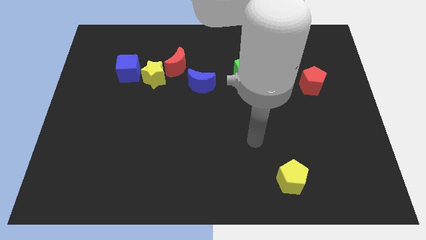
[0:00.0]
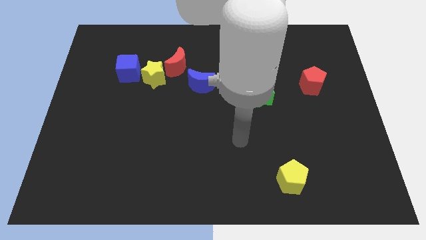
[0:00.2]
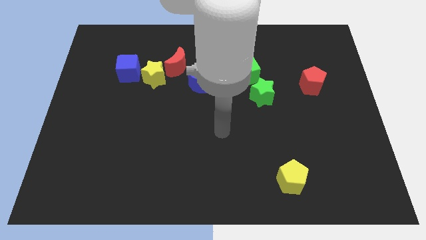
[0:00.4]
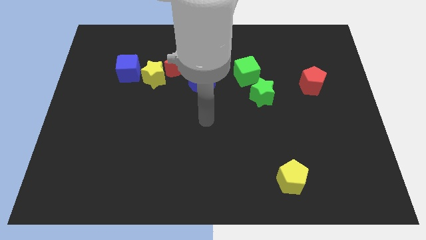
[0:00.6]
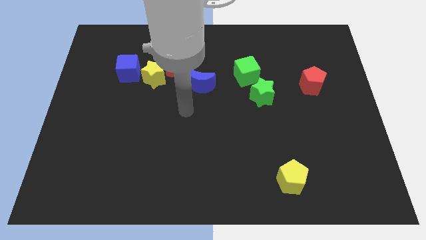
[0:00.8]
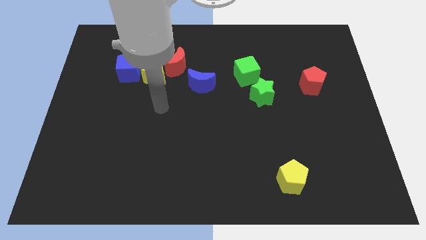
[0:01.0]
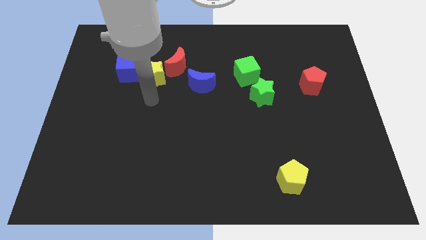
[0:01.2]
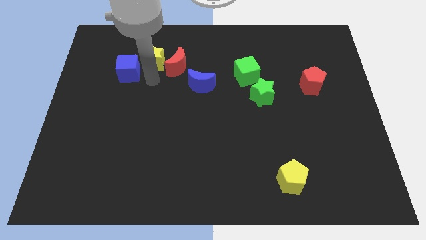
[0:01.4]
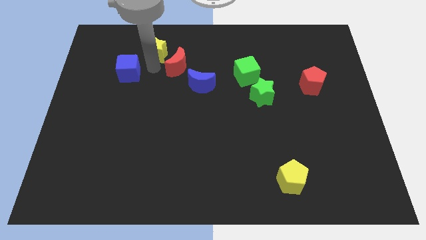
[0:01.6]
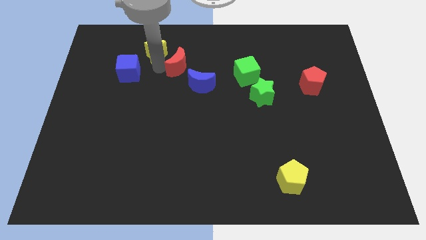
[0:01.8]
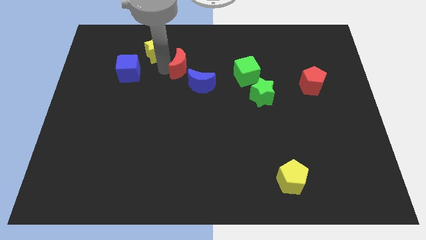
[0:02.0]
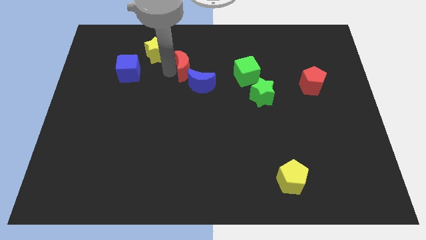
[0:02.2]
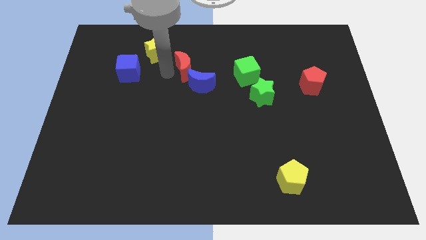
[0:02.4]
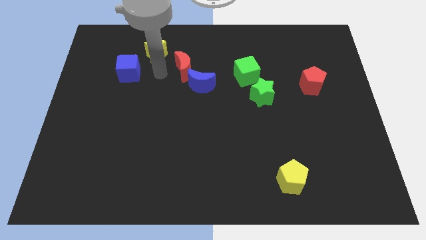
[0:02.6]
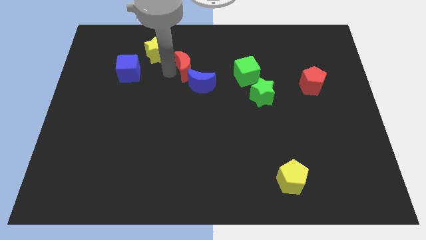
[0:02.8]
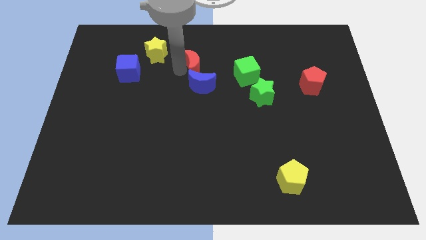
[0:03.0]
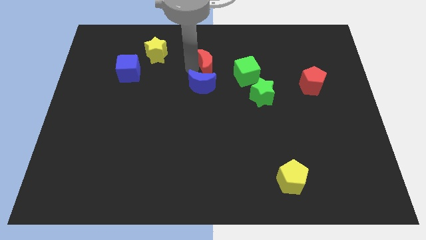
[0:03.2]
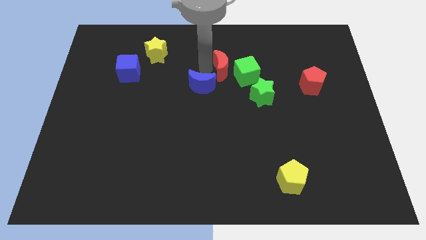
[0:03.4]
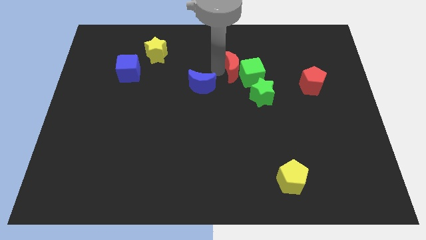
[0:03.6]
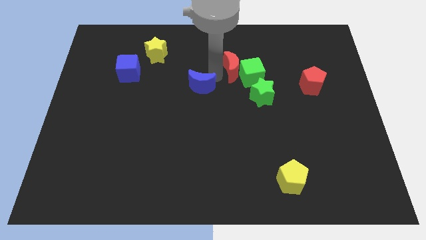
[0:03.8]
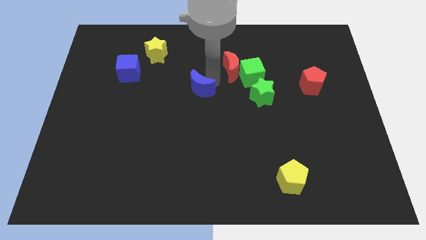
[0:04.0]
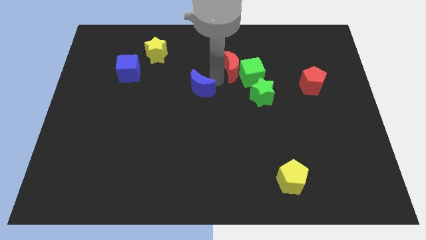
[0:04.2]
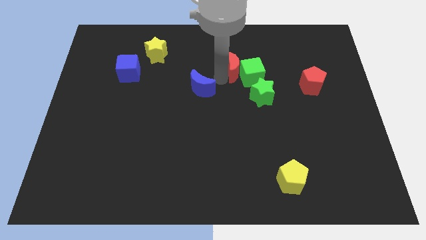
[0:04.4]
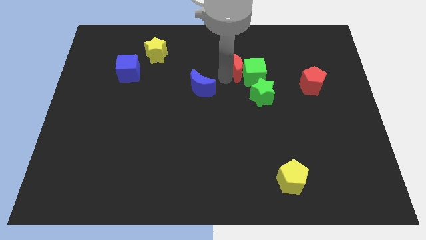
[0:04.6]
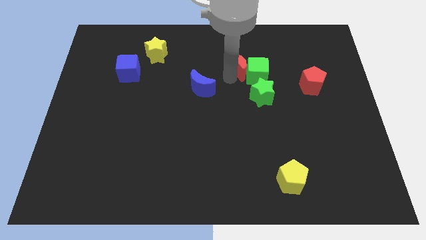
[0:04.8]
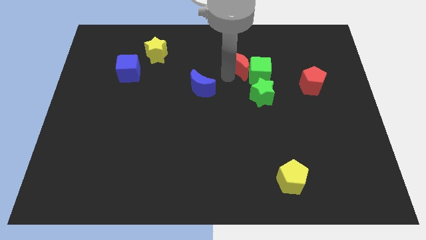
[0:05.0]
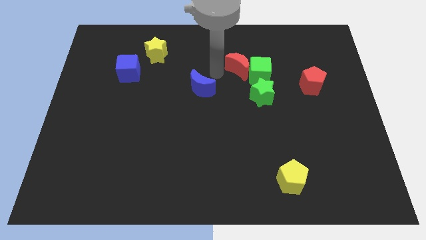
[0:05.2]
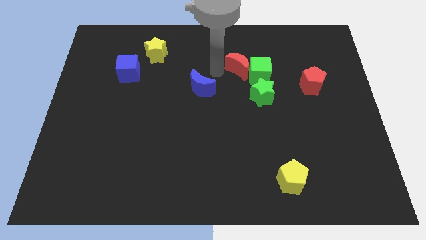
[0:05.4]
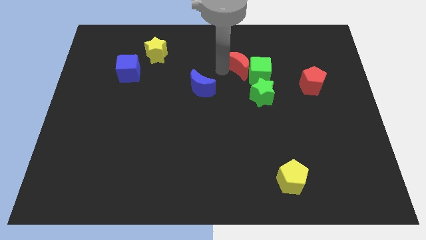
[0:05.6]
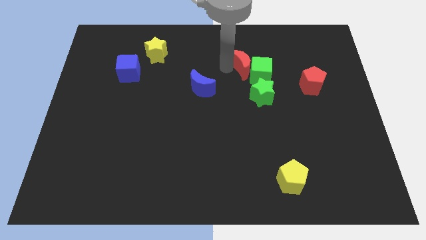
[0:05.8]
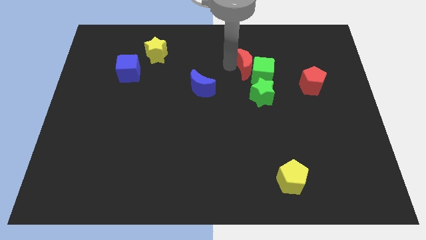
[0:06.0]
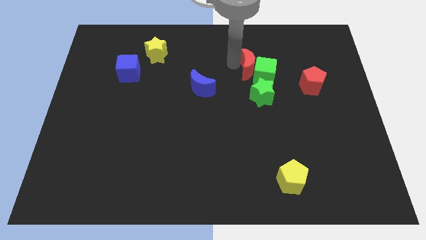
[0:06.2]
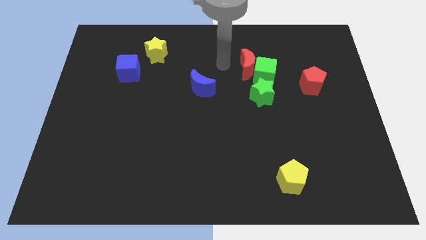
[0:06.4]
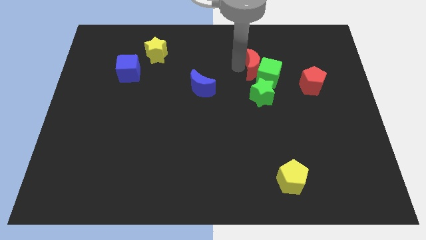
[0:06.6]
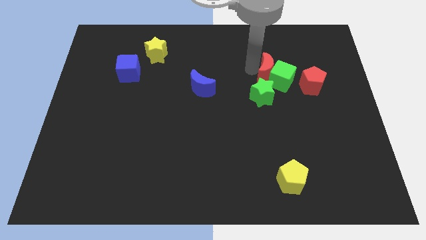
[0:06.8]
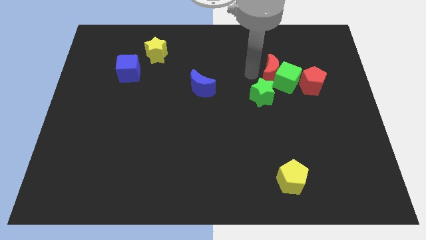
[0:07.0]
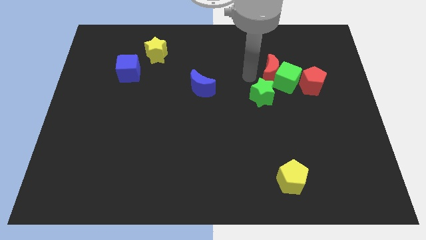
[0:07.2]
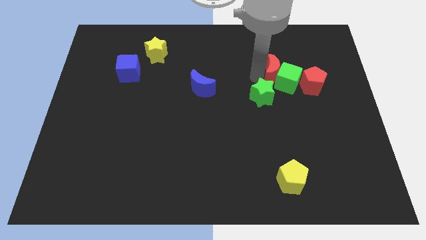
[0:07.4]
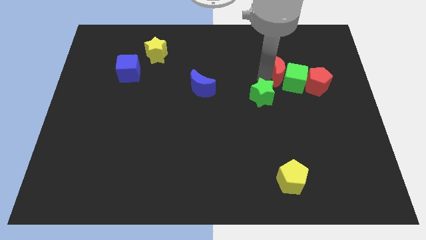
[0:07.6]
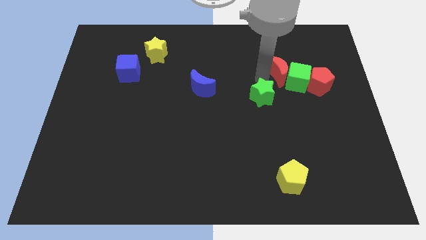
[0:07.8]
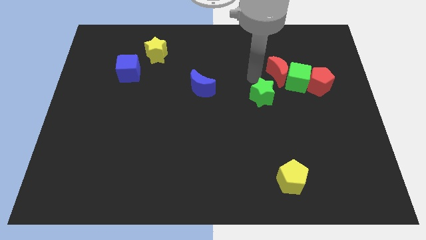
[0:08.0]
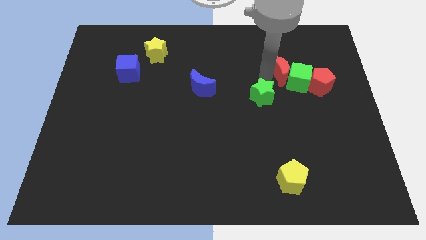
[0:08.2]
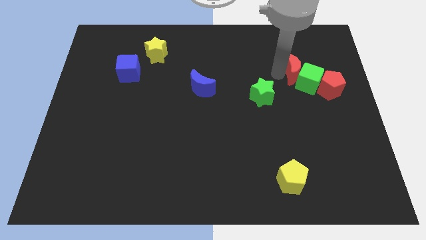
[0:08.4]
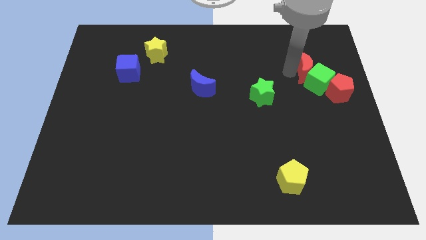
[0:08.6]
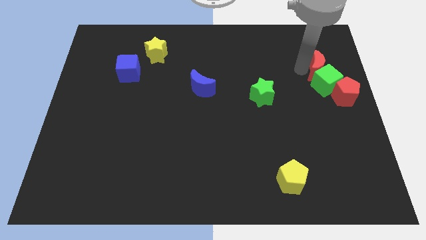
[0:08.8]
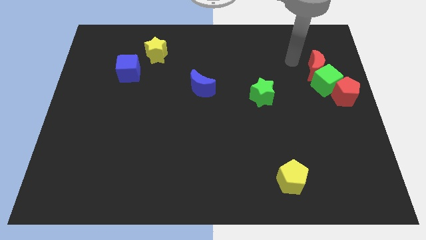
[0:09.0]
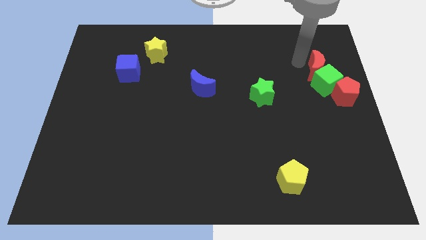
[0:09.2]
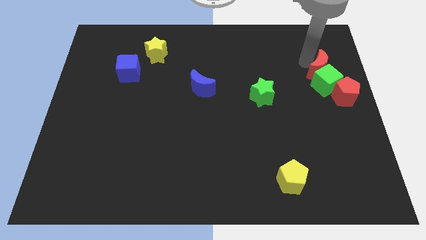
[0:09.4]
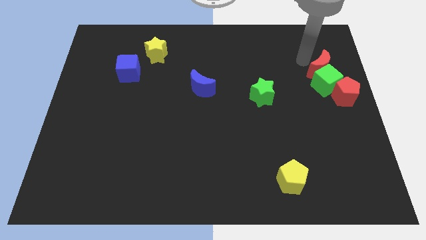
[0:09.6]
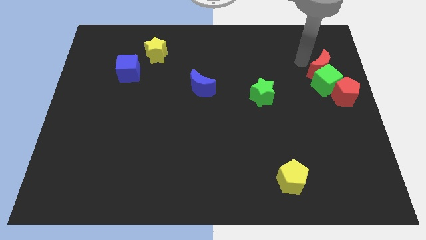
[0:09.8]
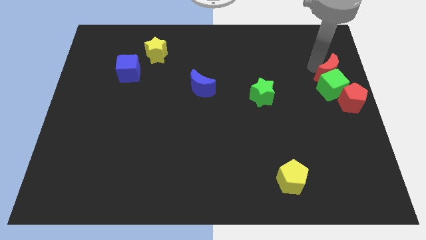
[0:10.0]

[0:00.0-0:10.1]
slide the red moon to the center right

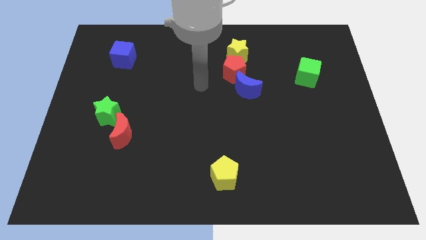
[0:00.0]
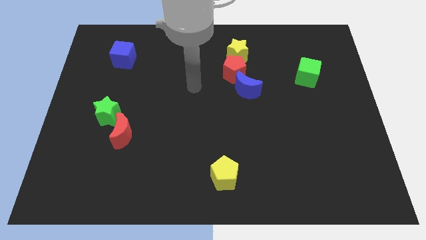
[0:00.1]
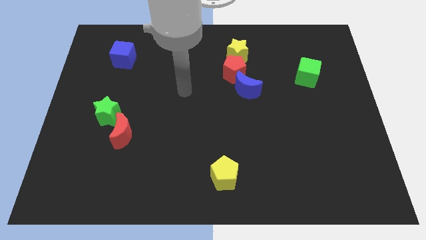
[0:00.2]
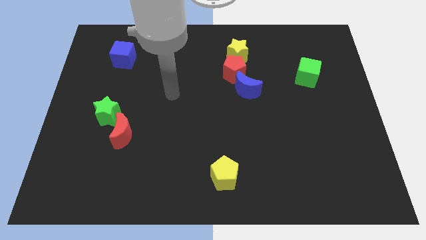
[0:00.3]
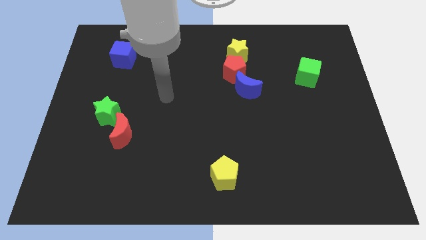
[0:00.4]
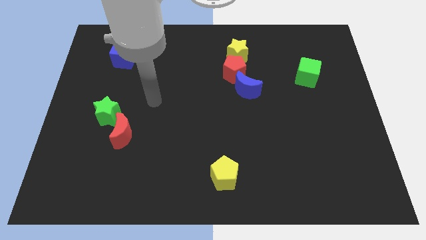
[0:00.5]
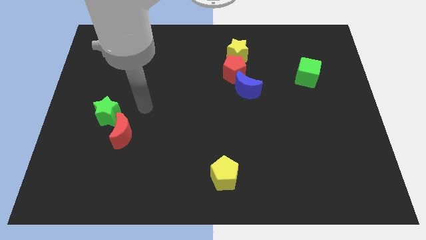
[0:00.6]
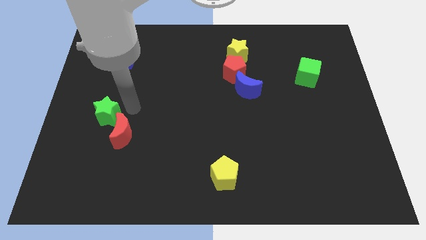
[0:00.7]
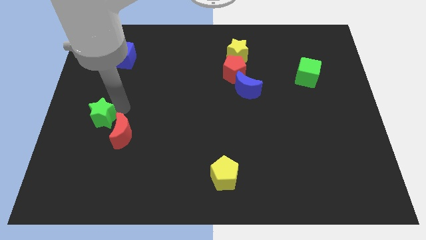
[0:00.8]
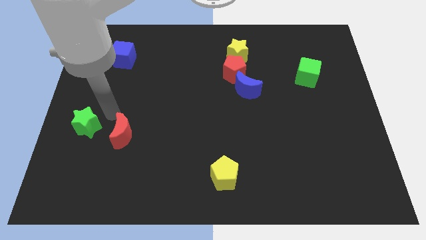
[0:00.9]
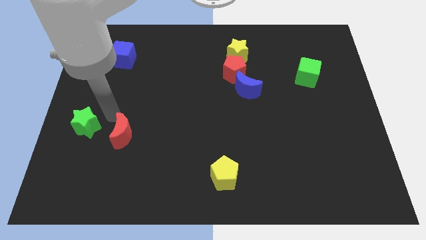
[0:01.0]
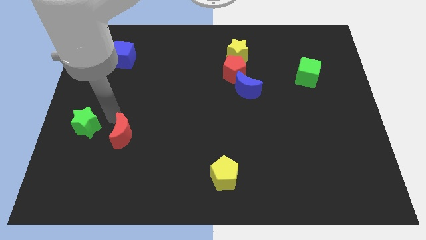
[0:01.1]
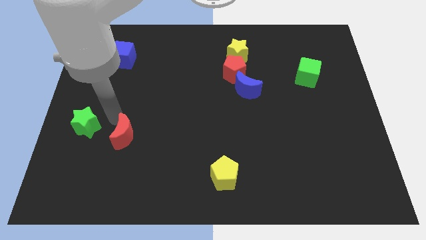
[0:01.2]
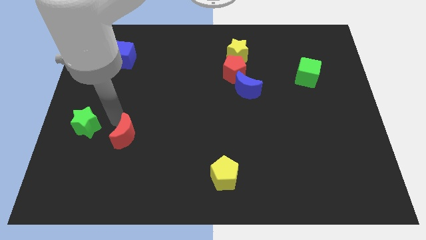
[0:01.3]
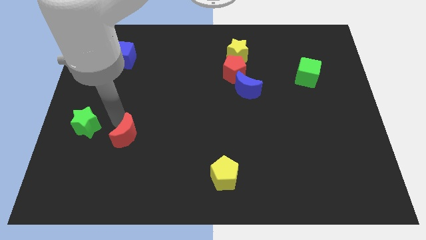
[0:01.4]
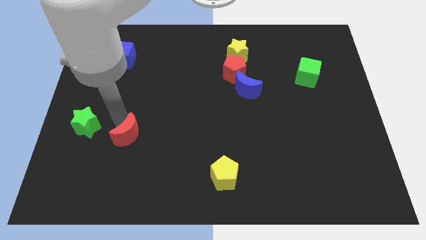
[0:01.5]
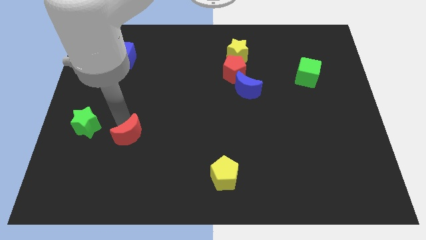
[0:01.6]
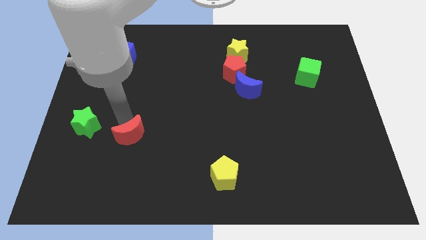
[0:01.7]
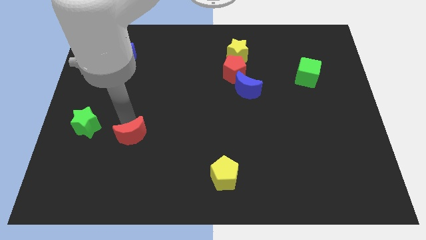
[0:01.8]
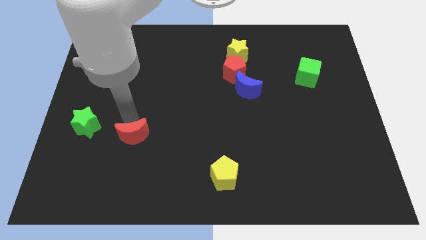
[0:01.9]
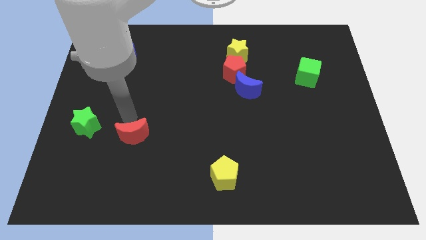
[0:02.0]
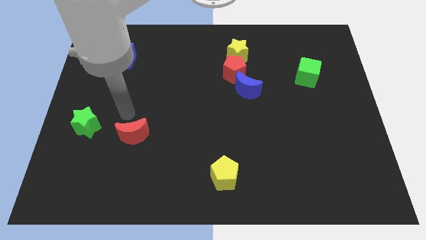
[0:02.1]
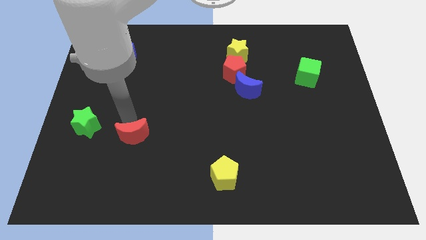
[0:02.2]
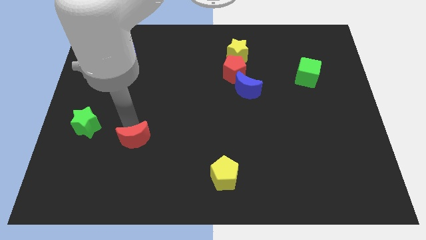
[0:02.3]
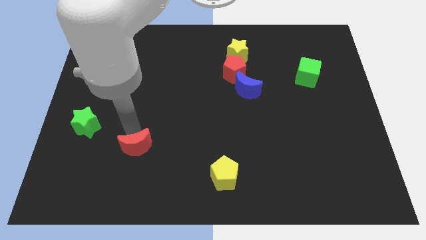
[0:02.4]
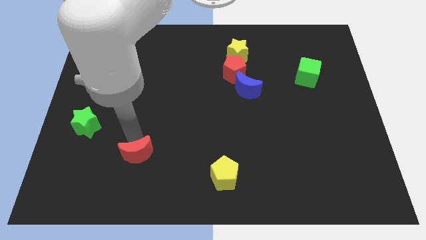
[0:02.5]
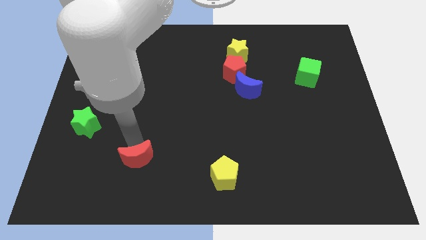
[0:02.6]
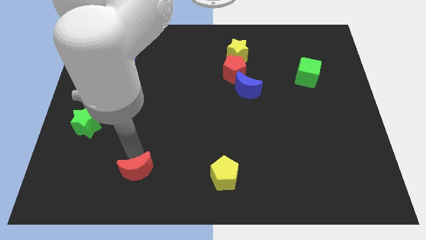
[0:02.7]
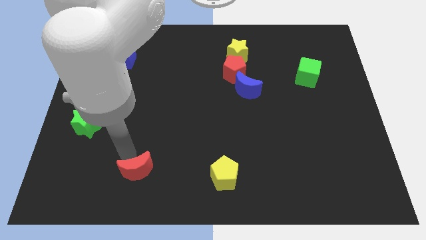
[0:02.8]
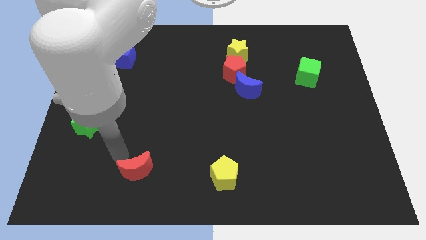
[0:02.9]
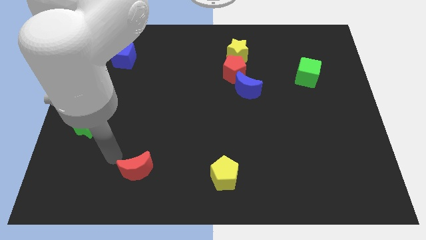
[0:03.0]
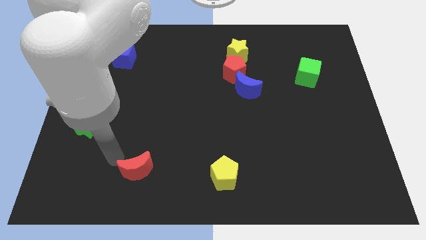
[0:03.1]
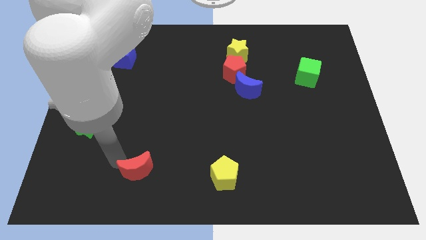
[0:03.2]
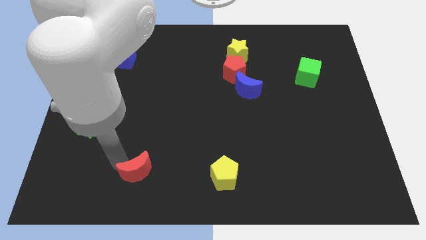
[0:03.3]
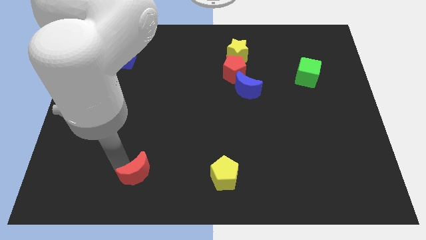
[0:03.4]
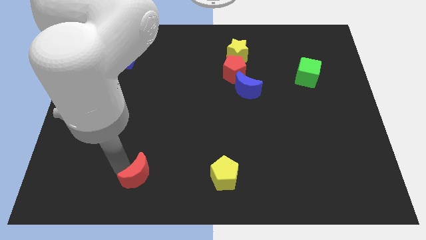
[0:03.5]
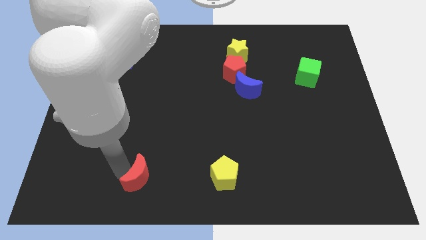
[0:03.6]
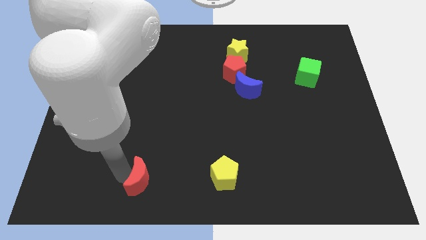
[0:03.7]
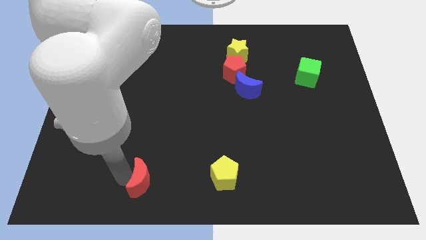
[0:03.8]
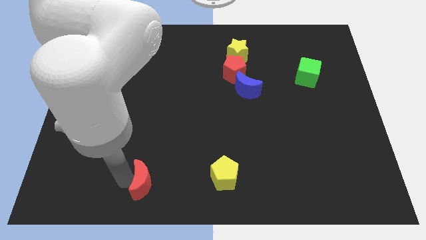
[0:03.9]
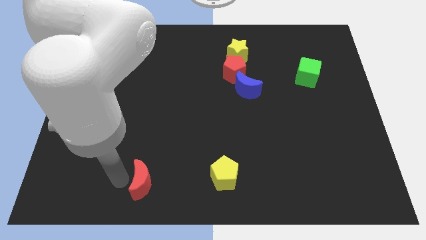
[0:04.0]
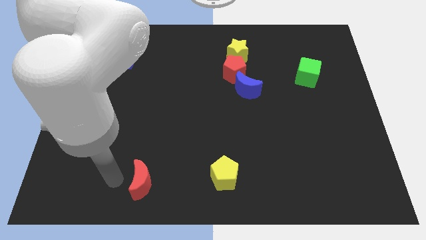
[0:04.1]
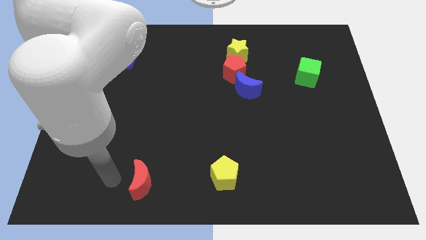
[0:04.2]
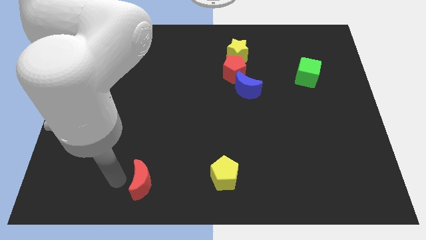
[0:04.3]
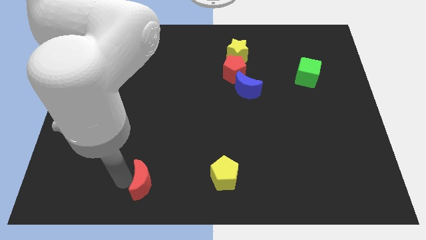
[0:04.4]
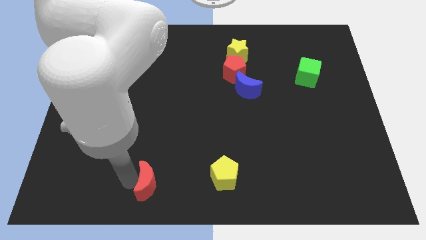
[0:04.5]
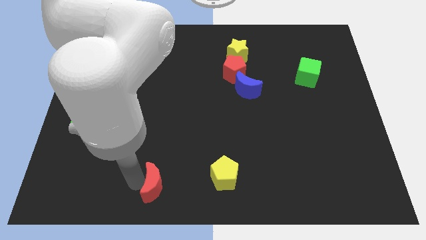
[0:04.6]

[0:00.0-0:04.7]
slide the red moon to the bottom side
